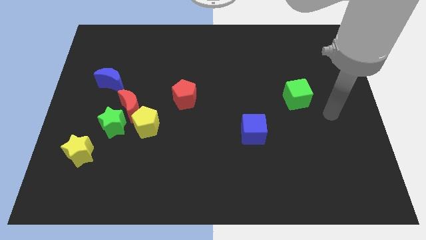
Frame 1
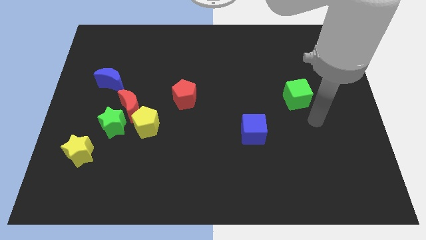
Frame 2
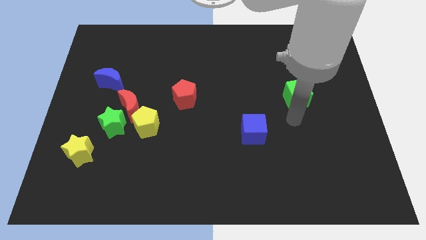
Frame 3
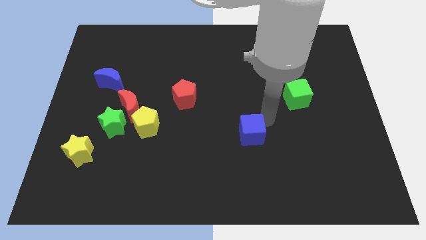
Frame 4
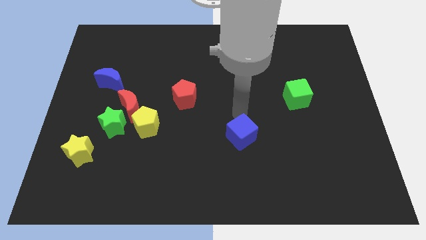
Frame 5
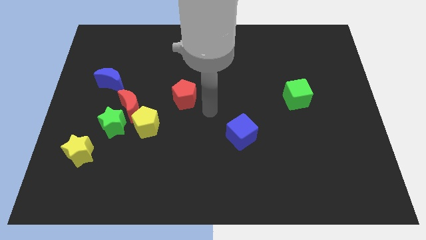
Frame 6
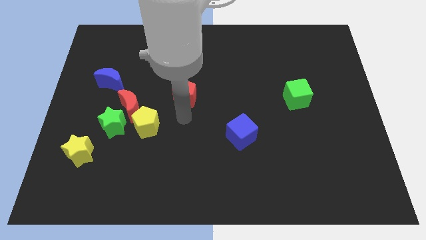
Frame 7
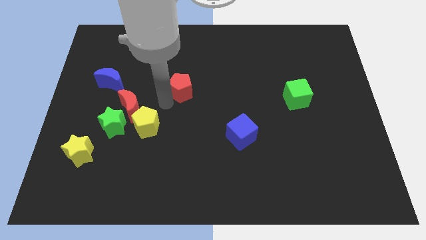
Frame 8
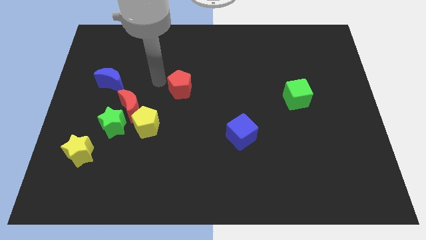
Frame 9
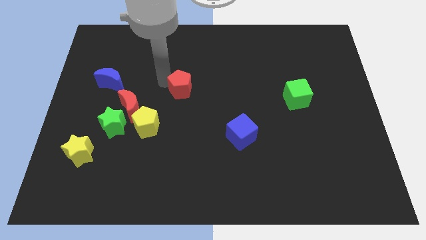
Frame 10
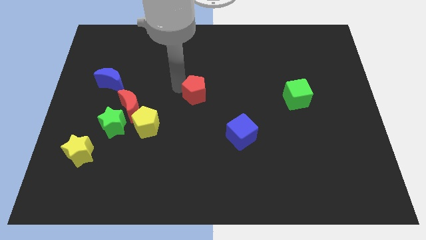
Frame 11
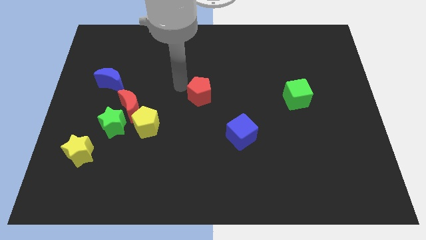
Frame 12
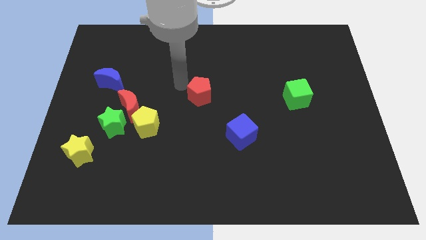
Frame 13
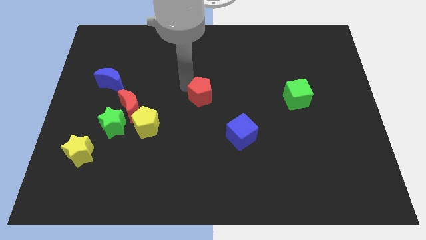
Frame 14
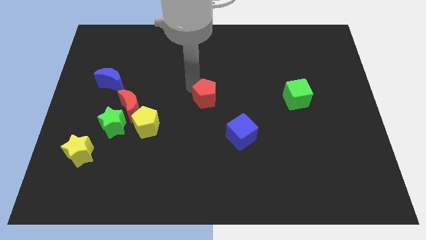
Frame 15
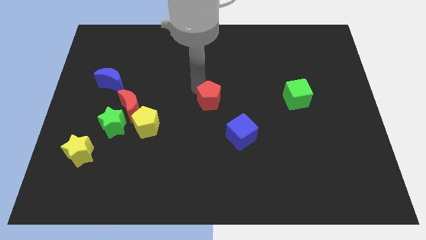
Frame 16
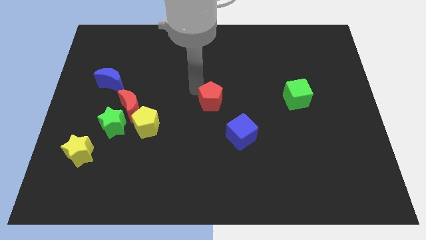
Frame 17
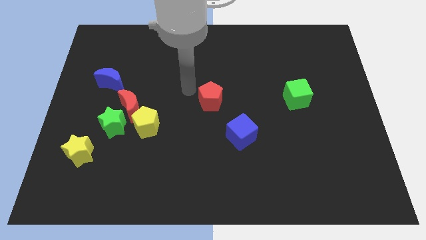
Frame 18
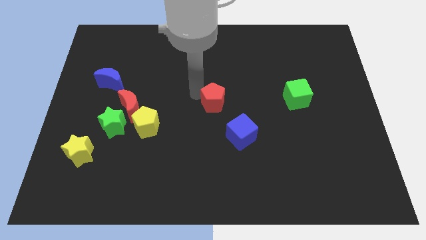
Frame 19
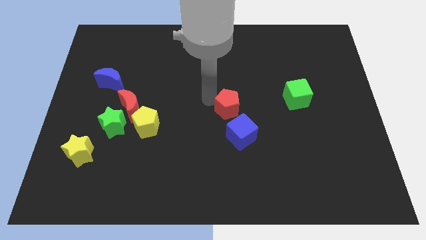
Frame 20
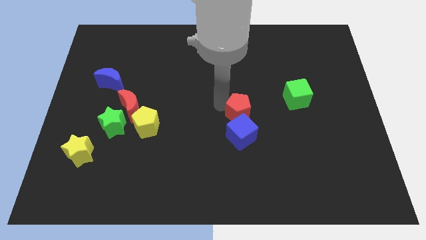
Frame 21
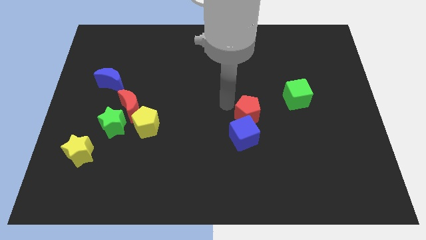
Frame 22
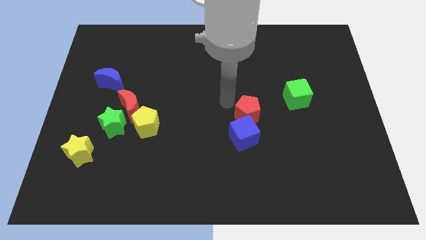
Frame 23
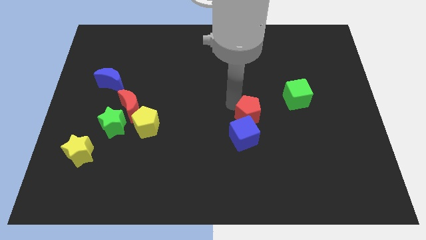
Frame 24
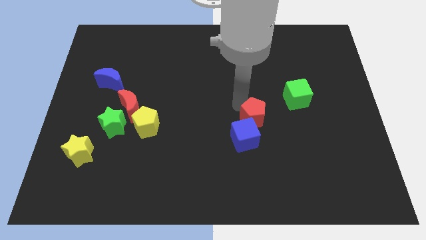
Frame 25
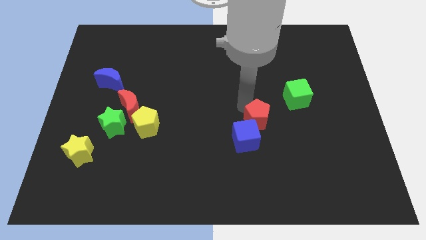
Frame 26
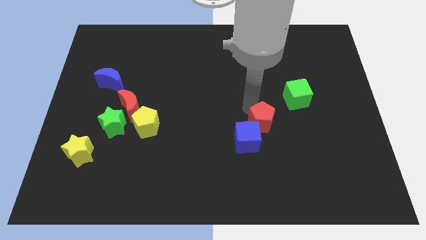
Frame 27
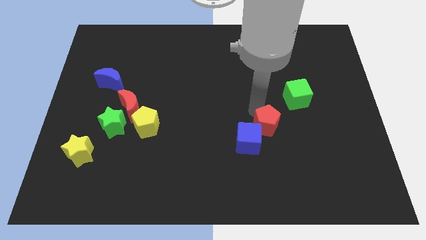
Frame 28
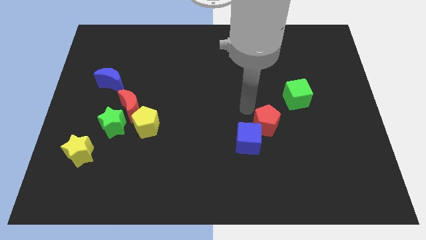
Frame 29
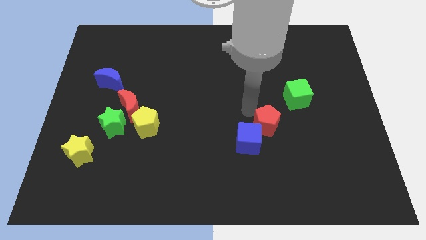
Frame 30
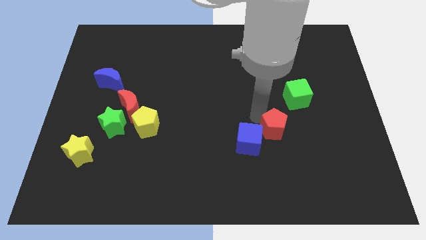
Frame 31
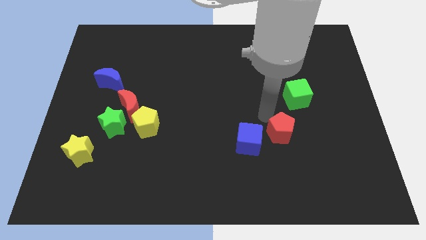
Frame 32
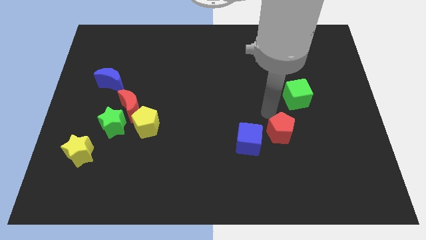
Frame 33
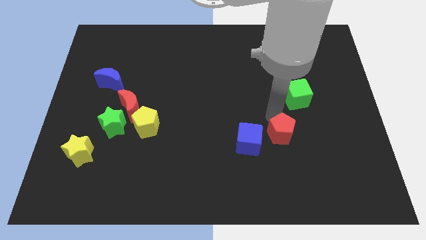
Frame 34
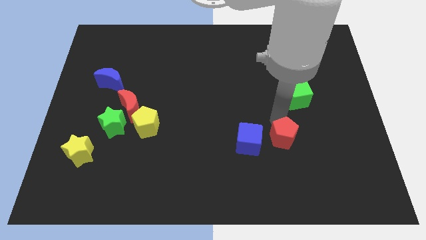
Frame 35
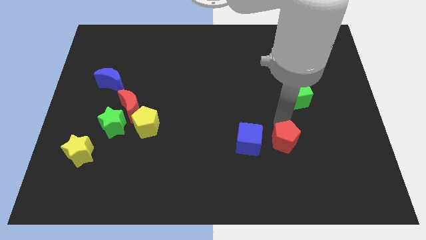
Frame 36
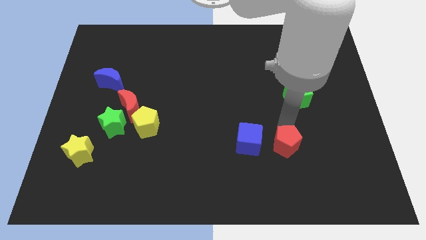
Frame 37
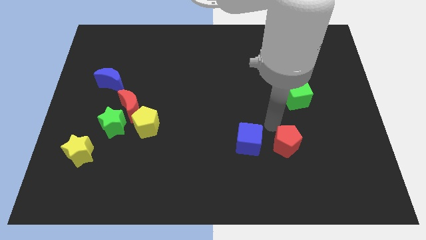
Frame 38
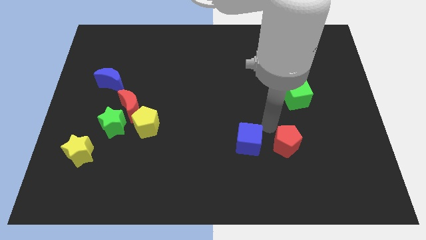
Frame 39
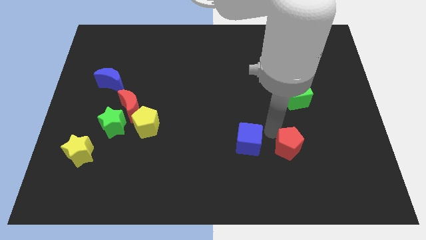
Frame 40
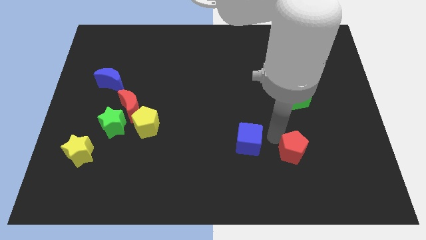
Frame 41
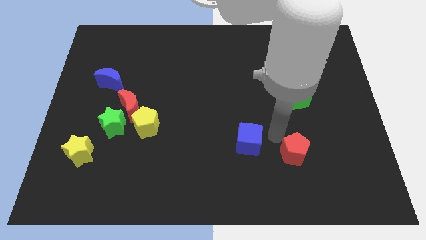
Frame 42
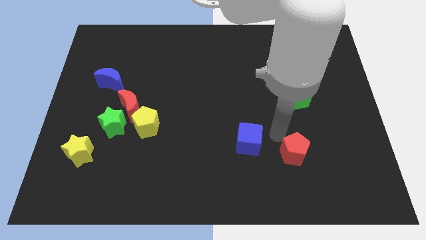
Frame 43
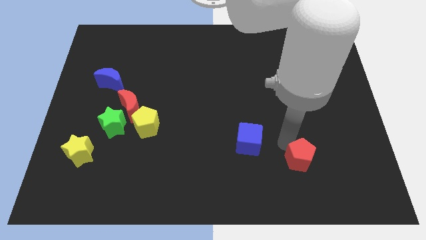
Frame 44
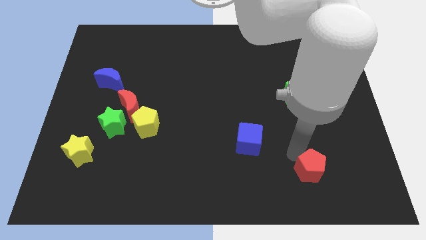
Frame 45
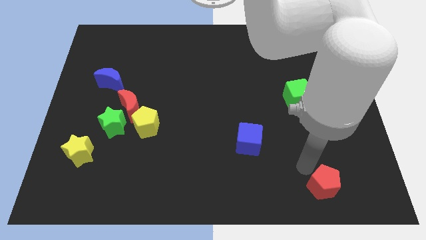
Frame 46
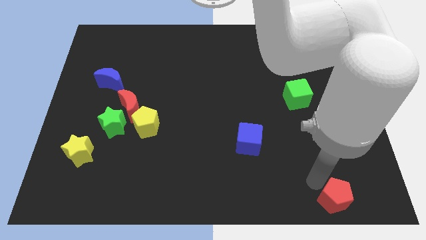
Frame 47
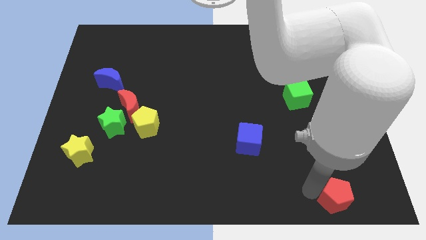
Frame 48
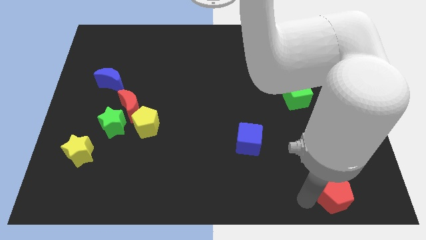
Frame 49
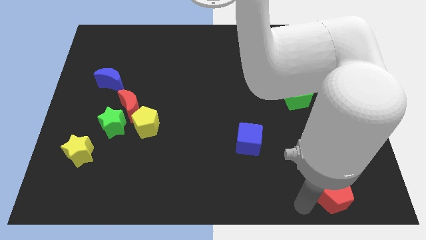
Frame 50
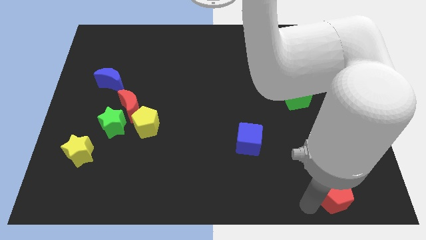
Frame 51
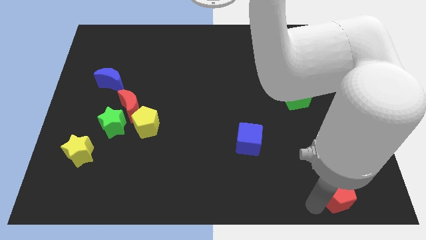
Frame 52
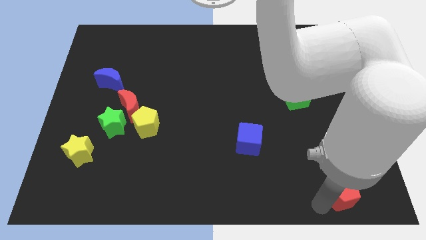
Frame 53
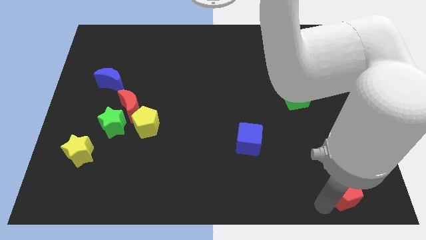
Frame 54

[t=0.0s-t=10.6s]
slide the red pentagon to the bottom right

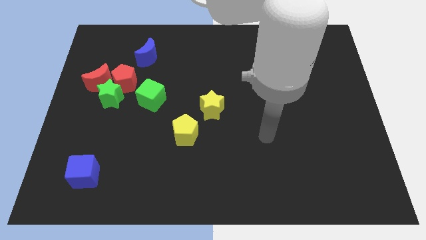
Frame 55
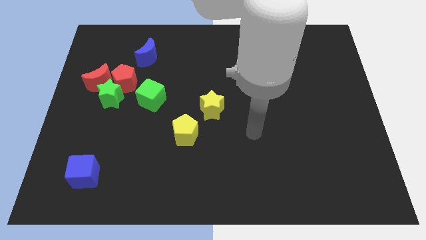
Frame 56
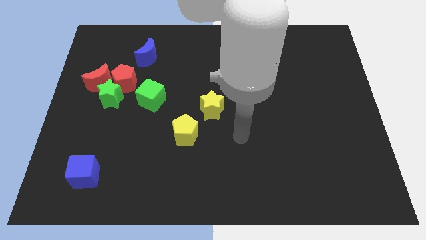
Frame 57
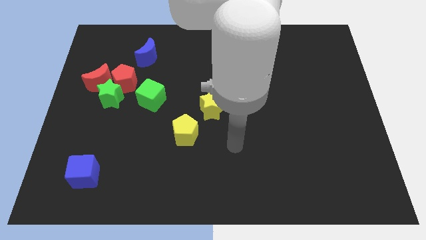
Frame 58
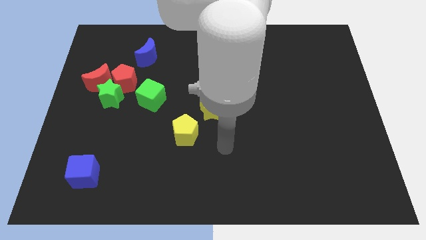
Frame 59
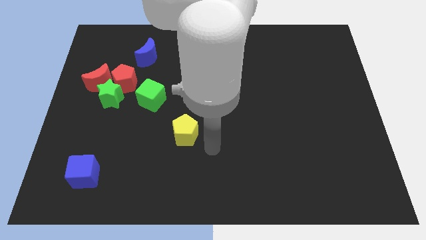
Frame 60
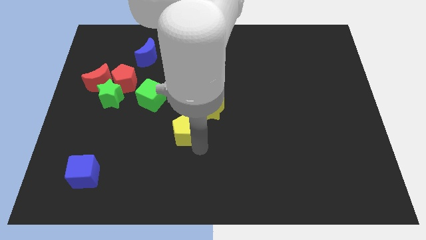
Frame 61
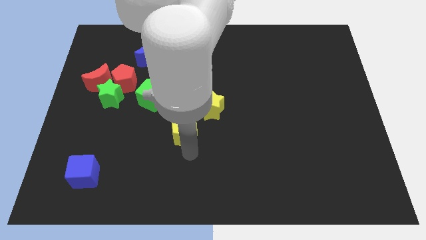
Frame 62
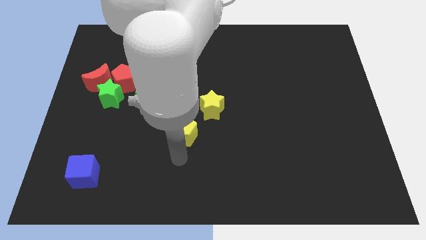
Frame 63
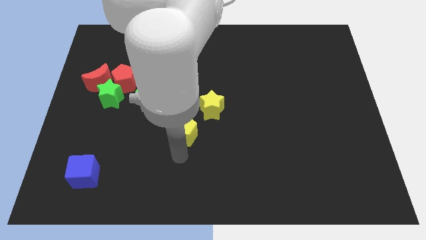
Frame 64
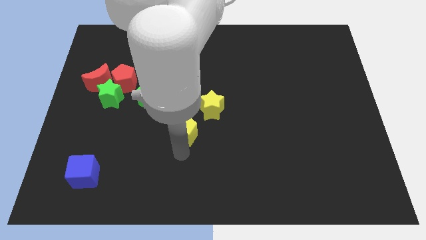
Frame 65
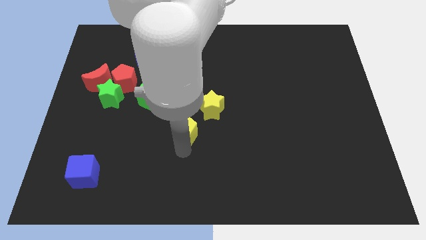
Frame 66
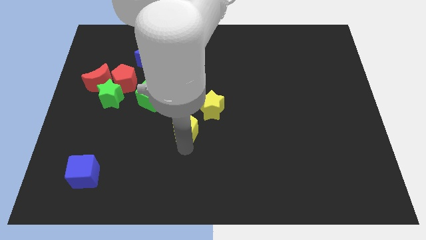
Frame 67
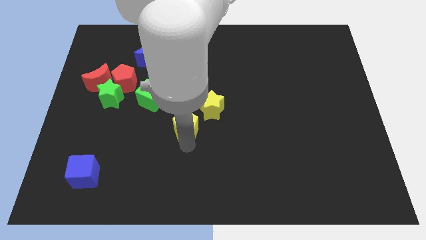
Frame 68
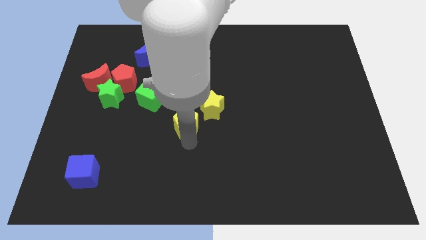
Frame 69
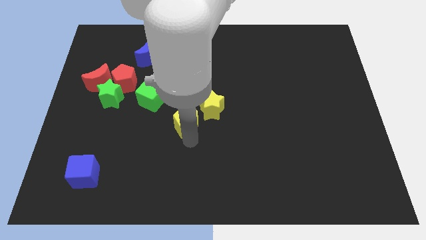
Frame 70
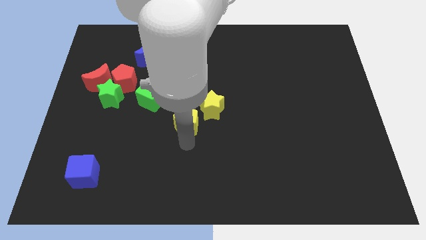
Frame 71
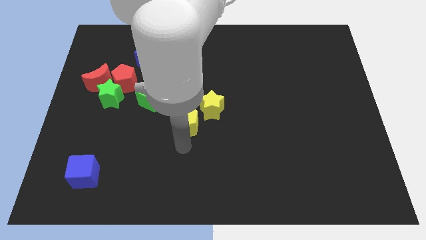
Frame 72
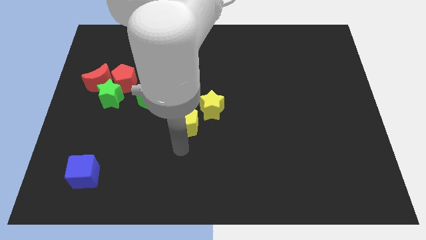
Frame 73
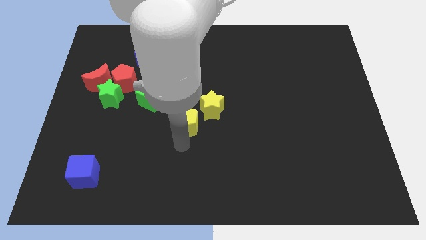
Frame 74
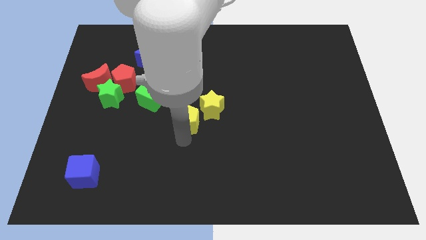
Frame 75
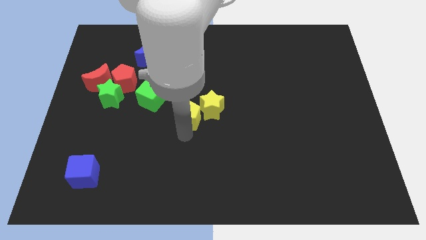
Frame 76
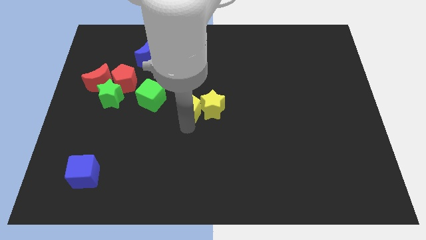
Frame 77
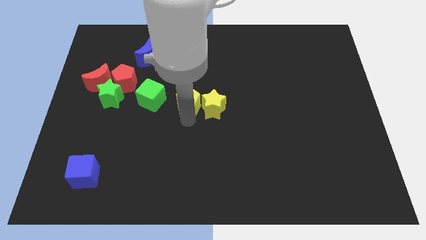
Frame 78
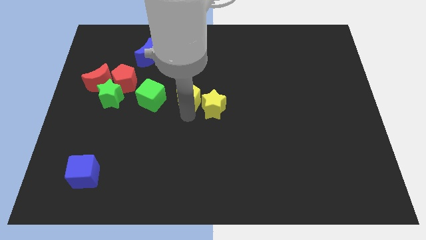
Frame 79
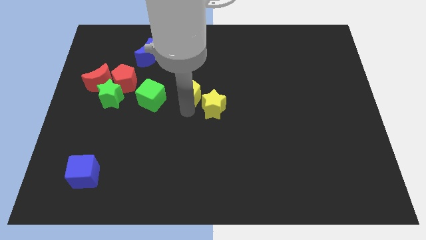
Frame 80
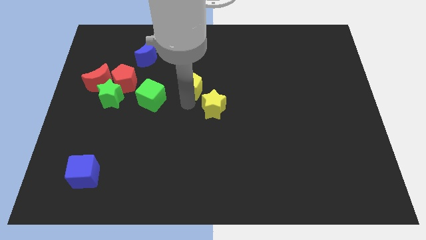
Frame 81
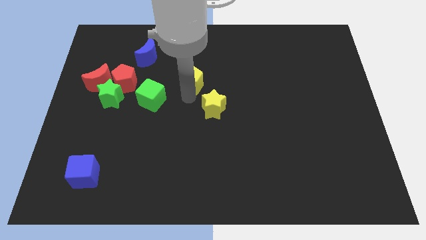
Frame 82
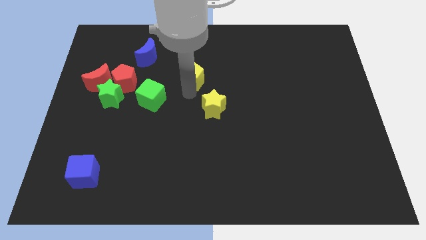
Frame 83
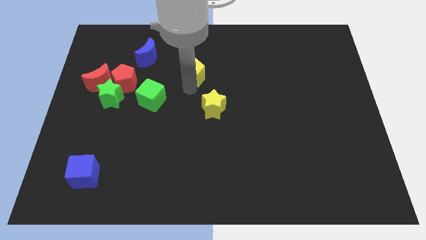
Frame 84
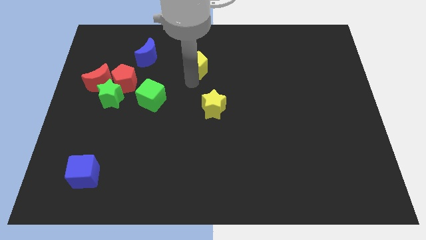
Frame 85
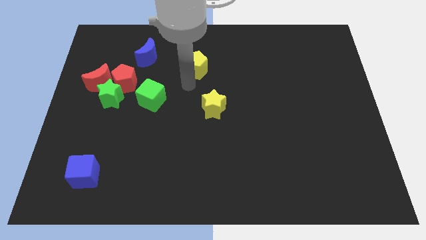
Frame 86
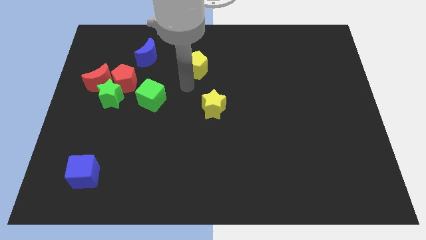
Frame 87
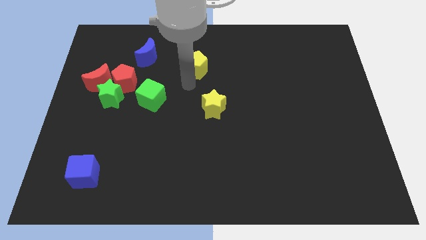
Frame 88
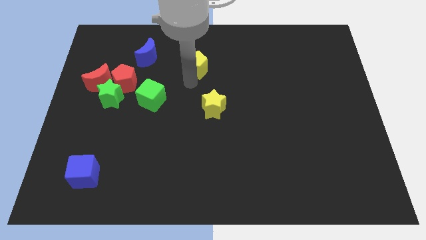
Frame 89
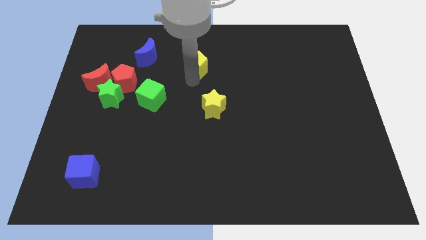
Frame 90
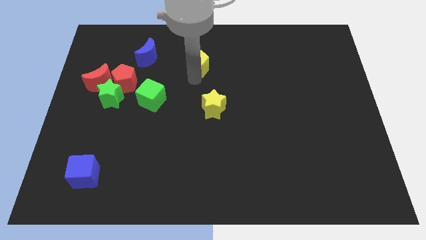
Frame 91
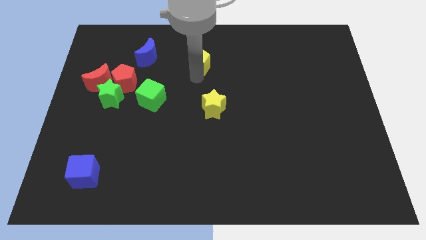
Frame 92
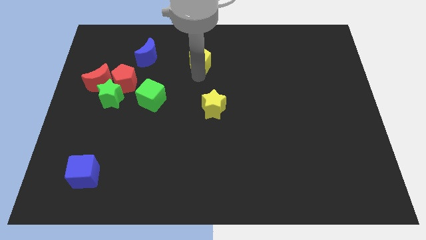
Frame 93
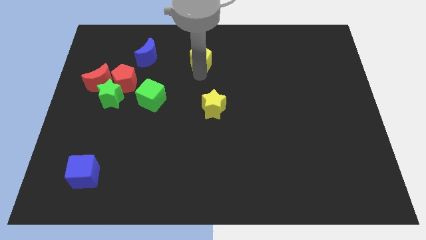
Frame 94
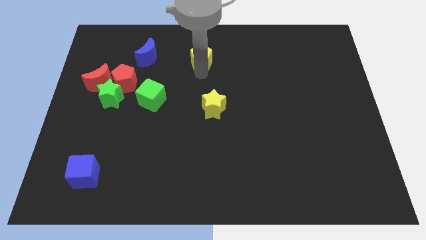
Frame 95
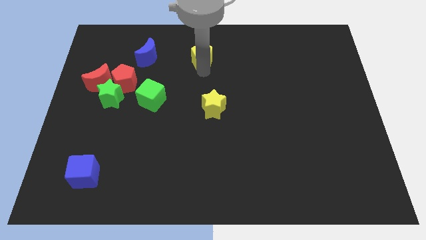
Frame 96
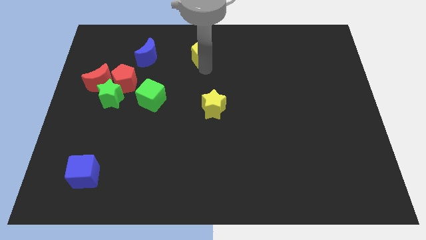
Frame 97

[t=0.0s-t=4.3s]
slide the yellow pentagon to the top side
